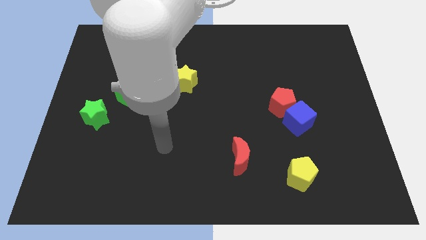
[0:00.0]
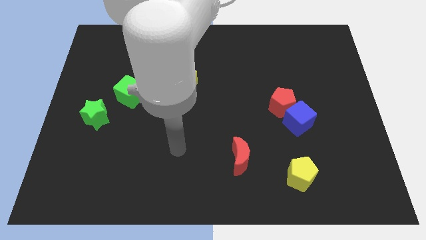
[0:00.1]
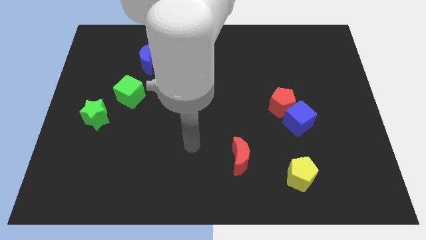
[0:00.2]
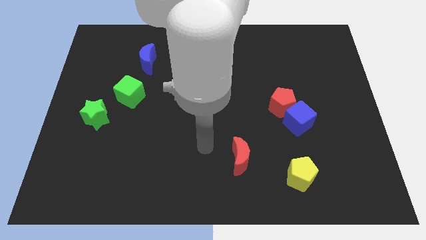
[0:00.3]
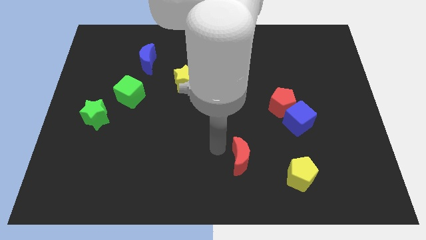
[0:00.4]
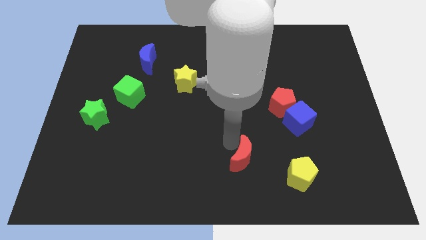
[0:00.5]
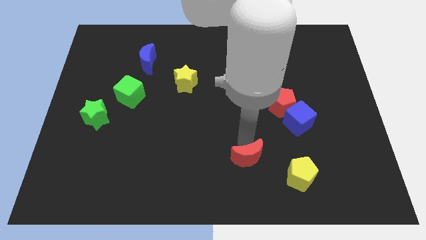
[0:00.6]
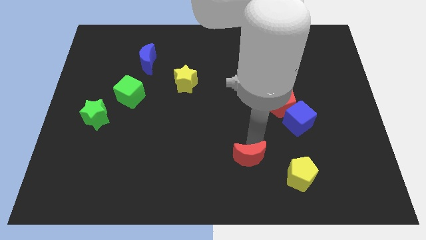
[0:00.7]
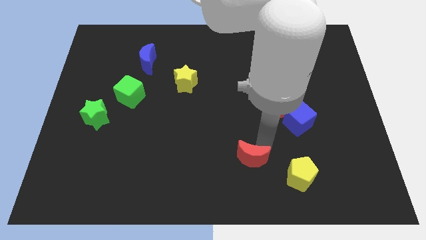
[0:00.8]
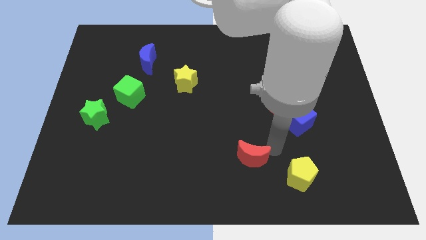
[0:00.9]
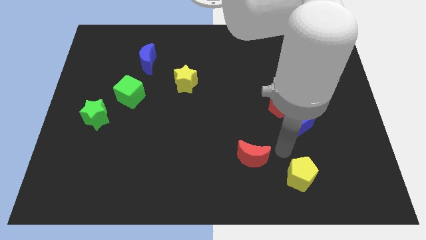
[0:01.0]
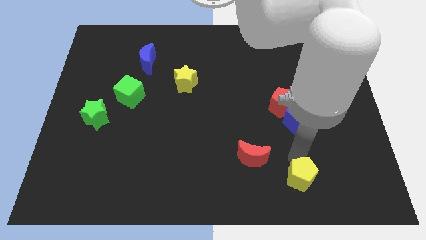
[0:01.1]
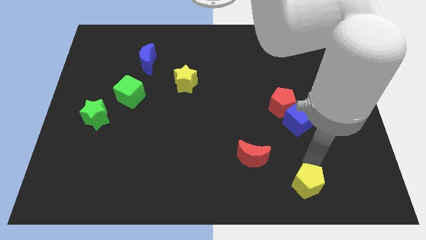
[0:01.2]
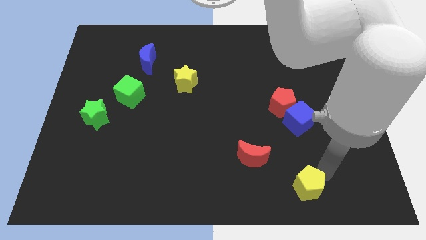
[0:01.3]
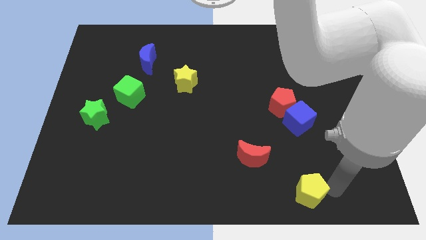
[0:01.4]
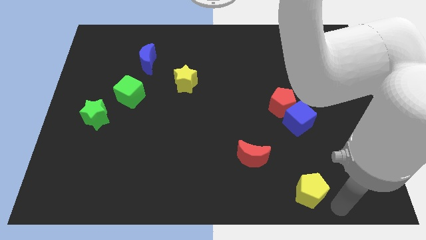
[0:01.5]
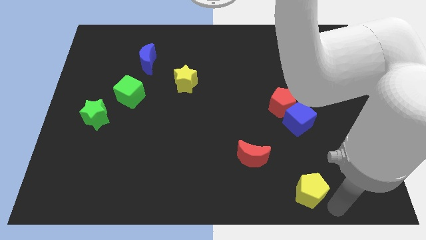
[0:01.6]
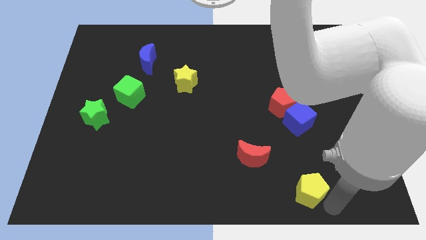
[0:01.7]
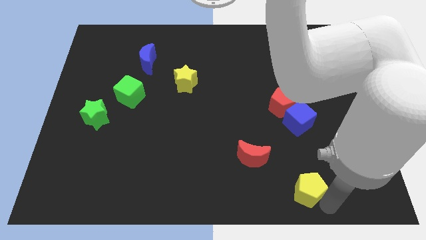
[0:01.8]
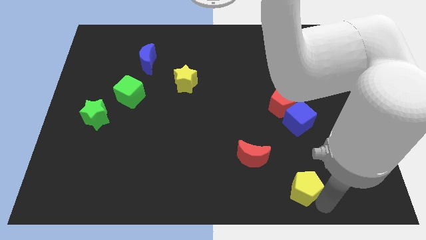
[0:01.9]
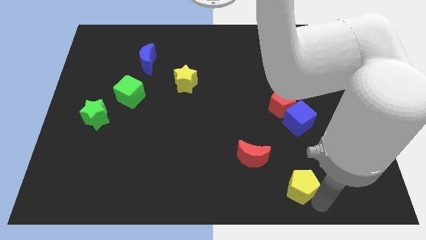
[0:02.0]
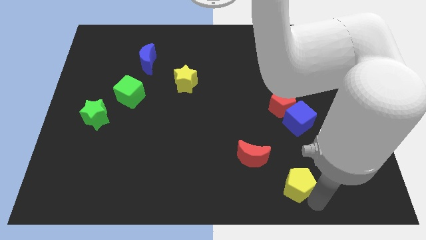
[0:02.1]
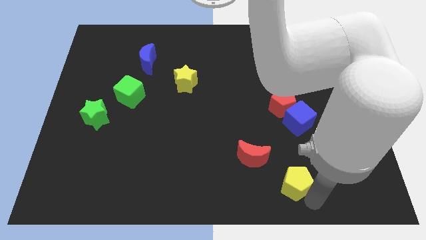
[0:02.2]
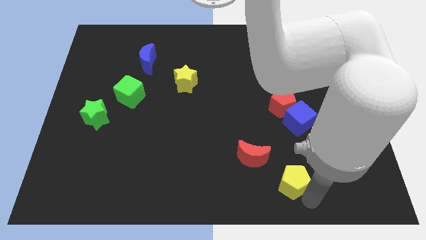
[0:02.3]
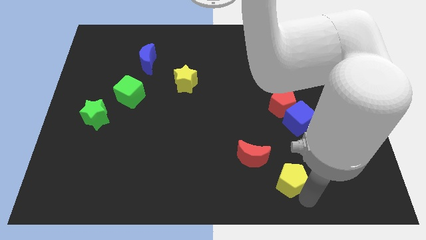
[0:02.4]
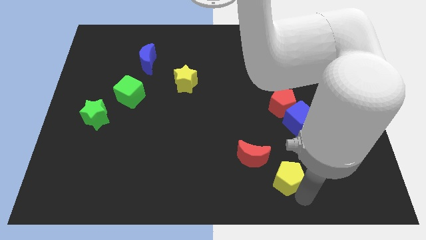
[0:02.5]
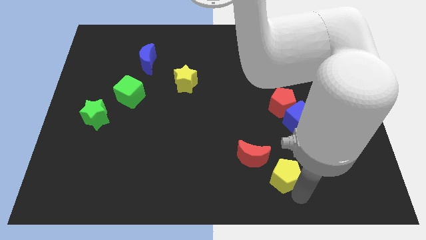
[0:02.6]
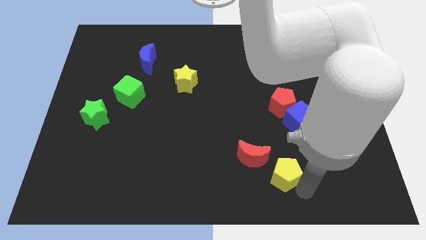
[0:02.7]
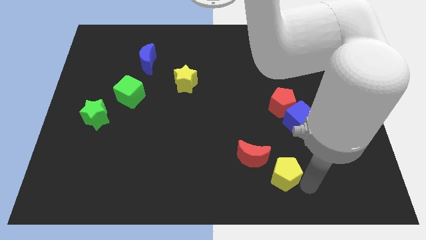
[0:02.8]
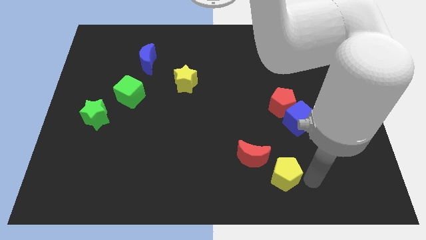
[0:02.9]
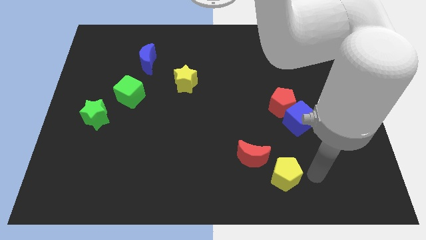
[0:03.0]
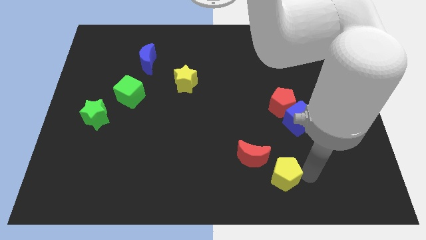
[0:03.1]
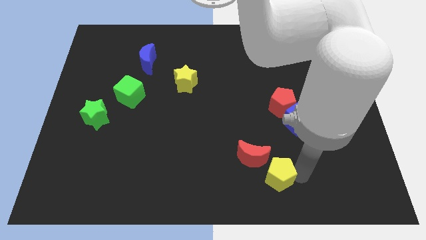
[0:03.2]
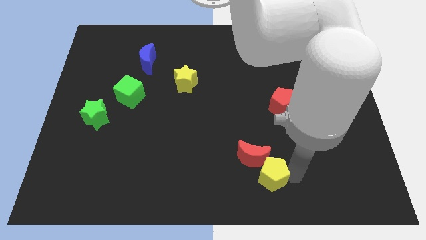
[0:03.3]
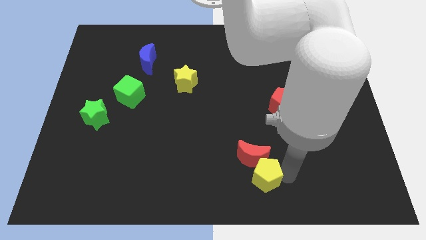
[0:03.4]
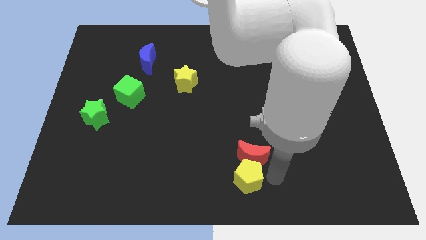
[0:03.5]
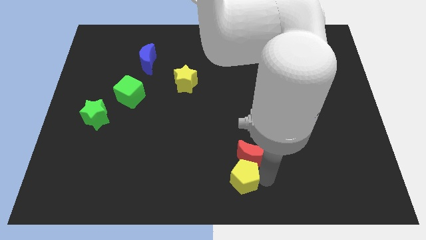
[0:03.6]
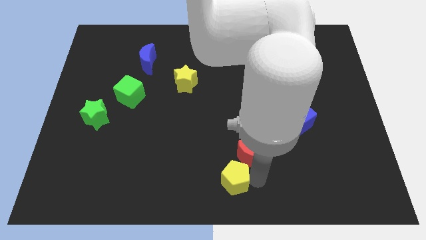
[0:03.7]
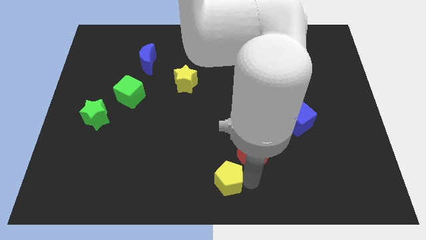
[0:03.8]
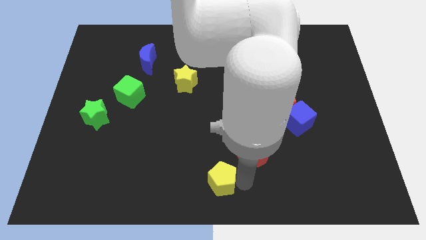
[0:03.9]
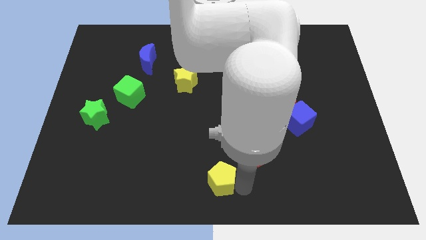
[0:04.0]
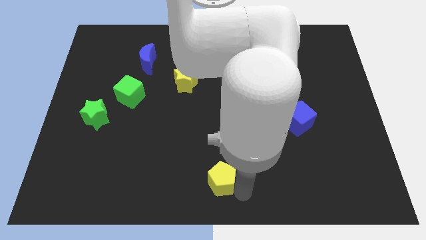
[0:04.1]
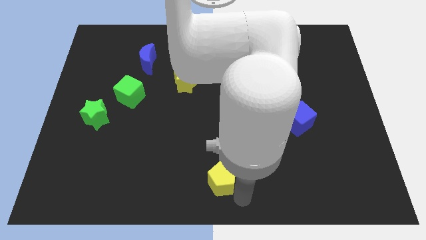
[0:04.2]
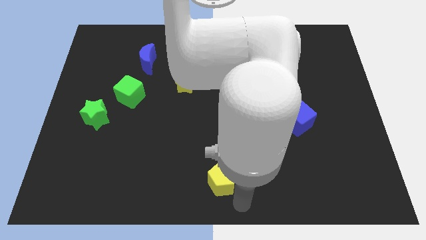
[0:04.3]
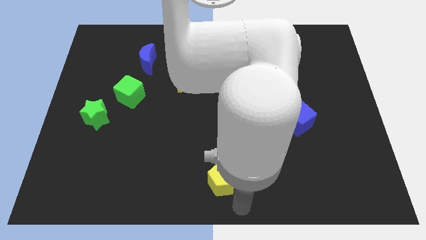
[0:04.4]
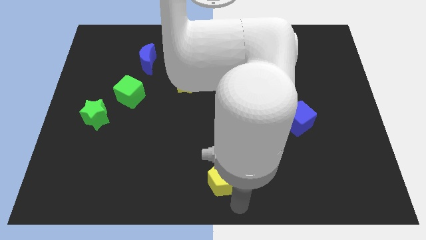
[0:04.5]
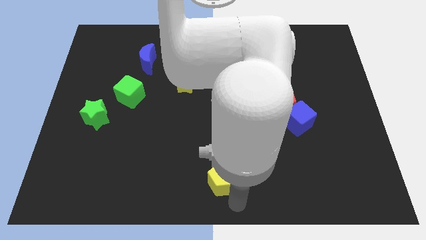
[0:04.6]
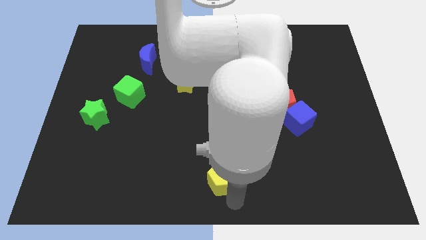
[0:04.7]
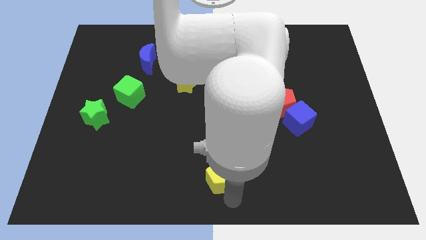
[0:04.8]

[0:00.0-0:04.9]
slide the yellow pentagon to the left side of the red moon

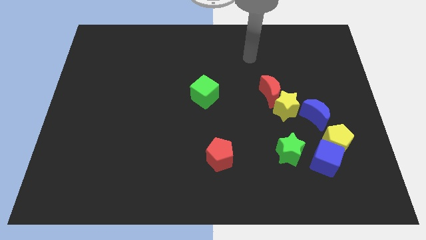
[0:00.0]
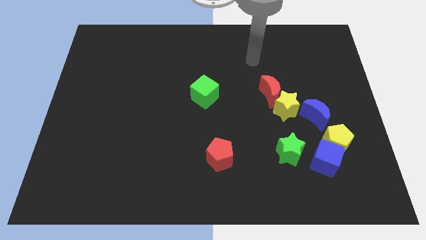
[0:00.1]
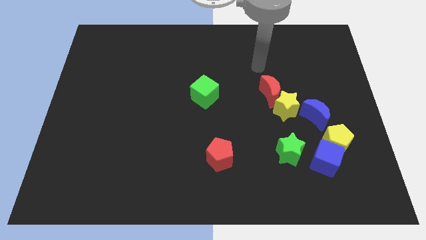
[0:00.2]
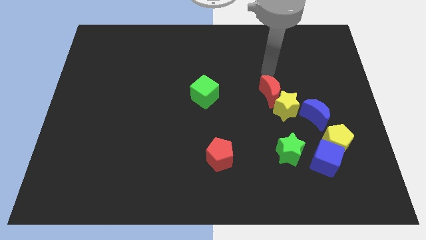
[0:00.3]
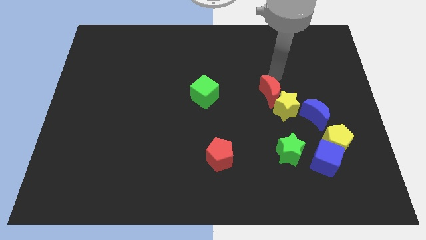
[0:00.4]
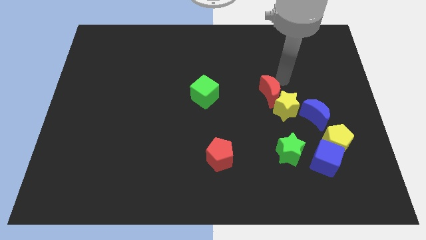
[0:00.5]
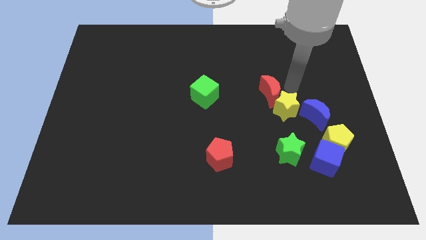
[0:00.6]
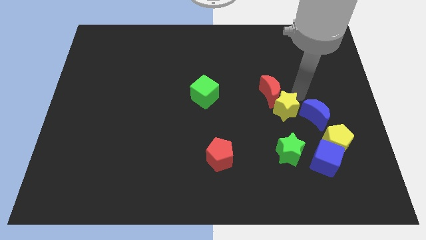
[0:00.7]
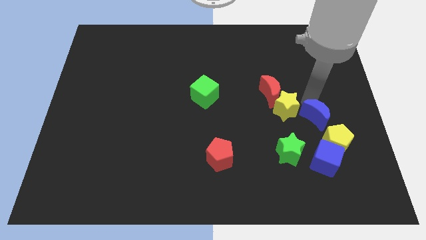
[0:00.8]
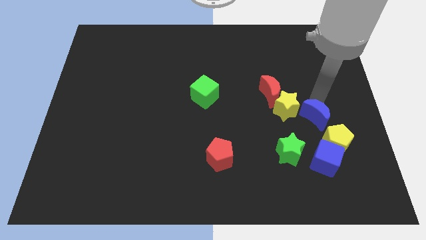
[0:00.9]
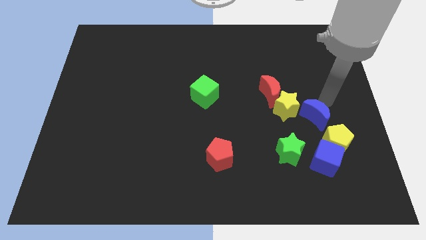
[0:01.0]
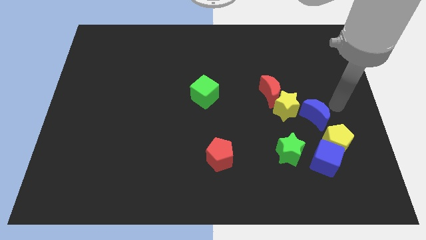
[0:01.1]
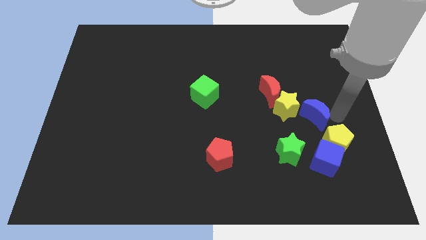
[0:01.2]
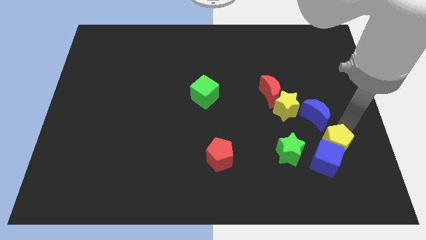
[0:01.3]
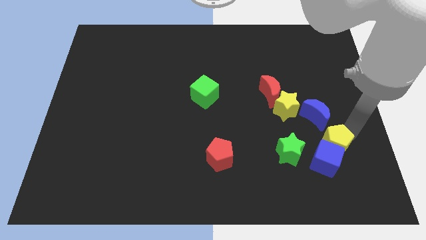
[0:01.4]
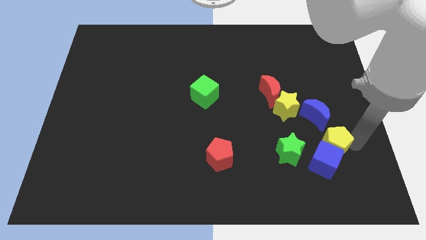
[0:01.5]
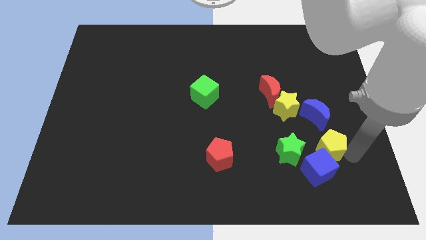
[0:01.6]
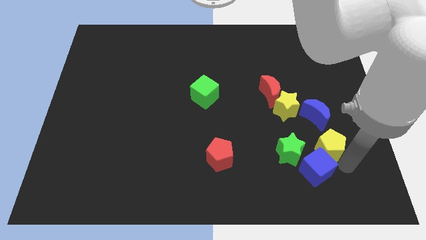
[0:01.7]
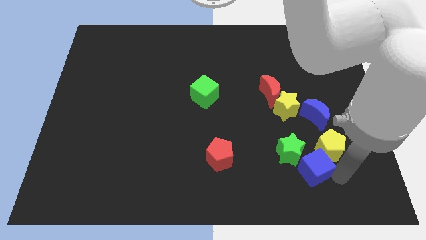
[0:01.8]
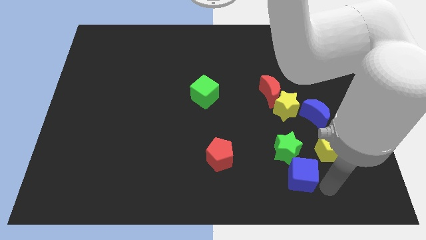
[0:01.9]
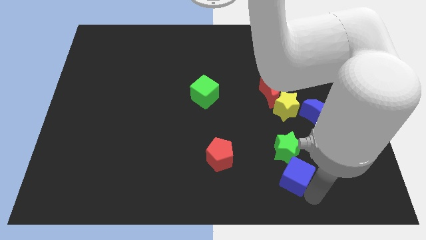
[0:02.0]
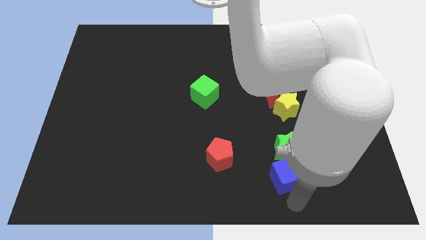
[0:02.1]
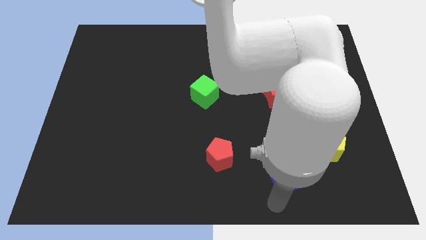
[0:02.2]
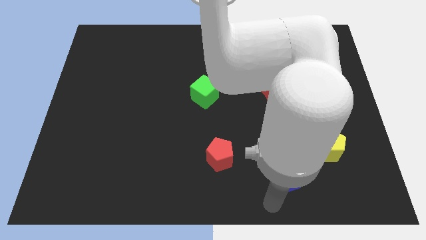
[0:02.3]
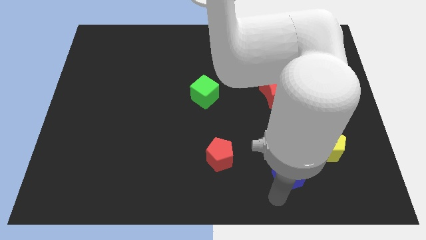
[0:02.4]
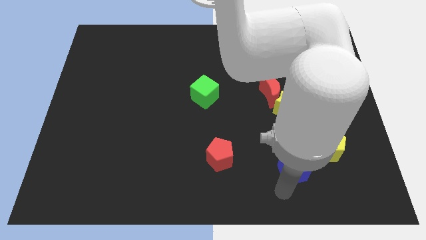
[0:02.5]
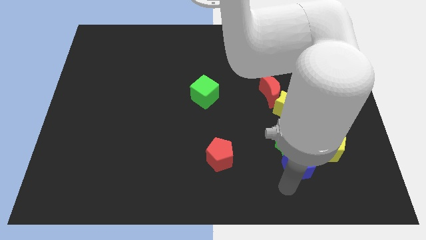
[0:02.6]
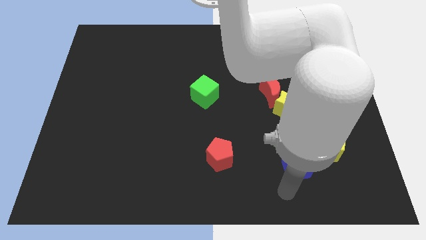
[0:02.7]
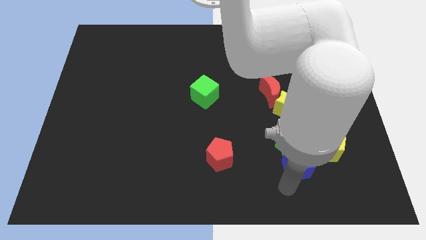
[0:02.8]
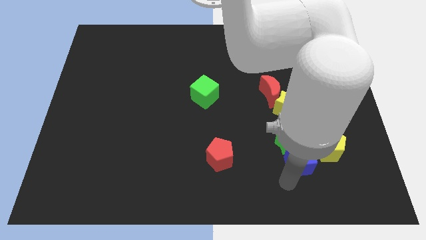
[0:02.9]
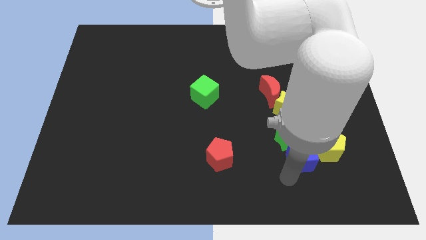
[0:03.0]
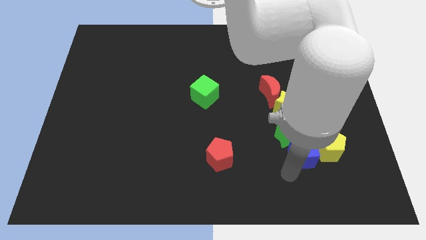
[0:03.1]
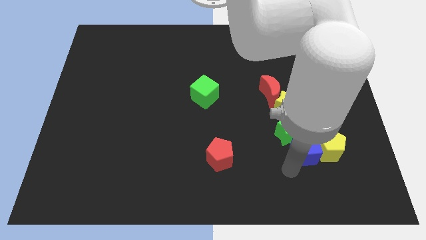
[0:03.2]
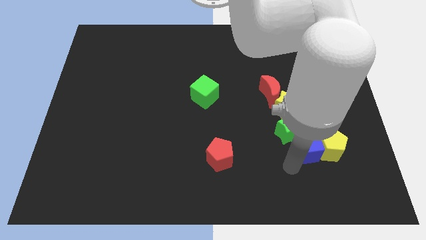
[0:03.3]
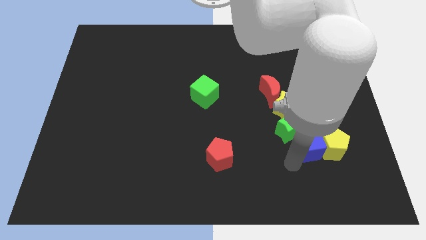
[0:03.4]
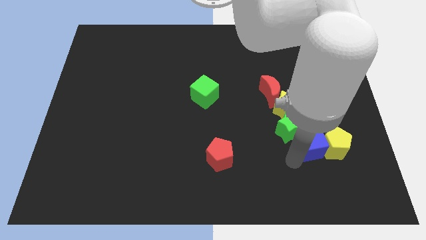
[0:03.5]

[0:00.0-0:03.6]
slide the blue cube to the bottom right side of the yellow star
